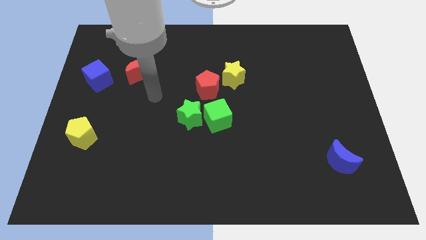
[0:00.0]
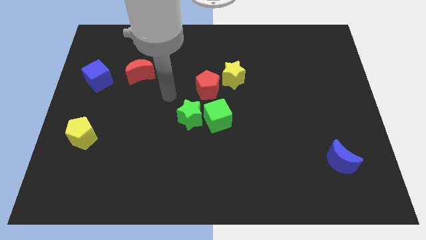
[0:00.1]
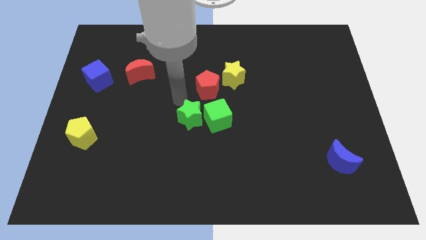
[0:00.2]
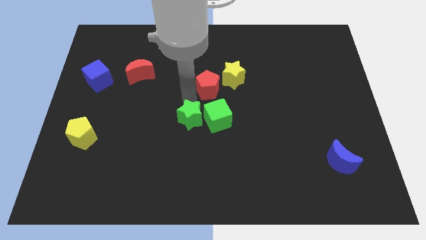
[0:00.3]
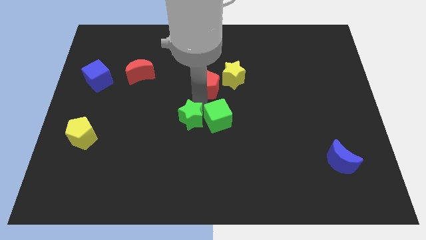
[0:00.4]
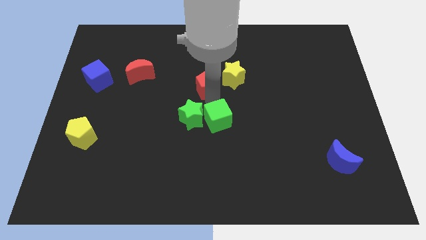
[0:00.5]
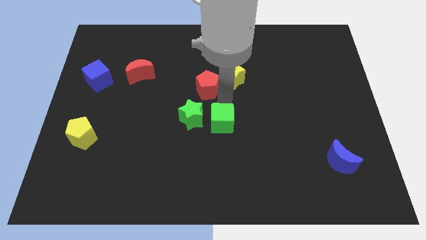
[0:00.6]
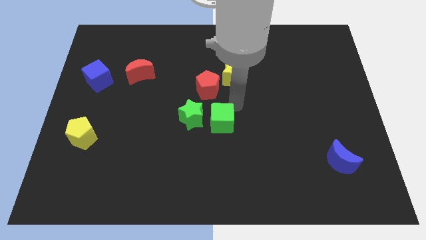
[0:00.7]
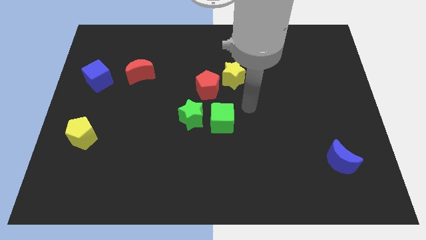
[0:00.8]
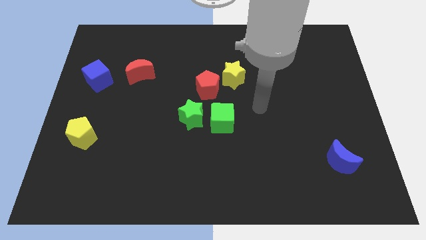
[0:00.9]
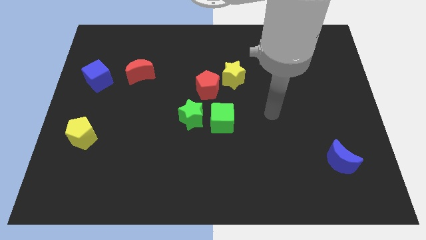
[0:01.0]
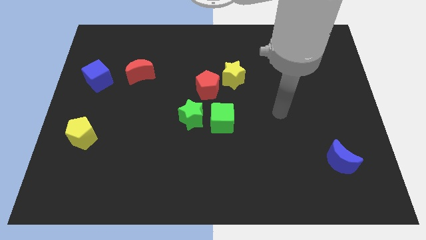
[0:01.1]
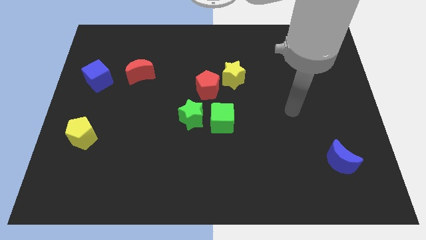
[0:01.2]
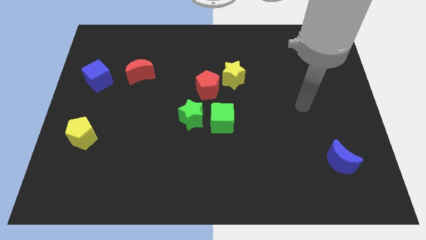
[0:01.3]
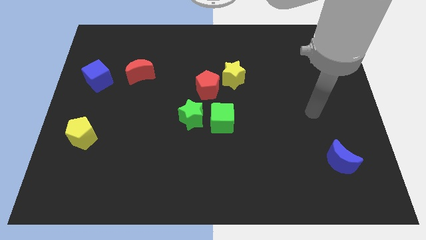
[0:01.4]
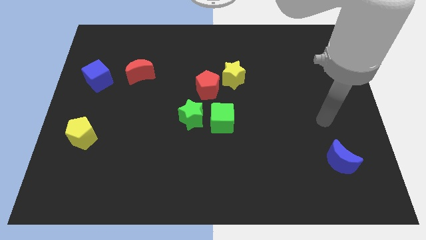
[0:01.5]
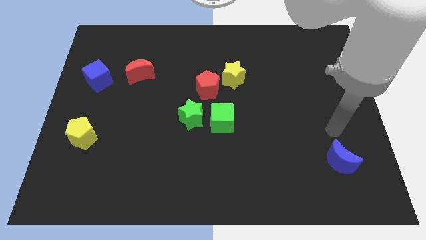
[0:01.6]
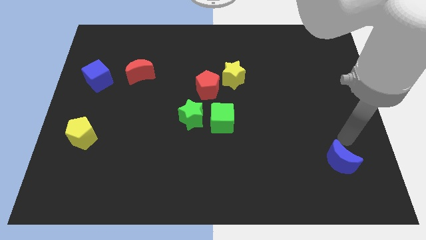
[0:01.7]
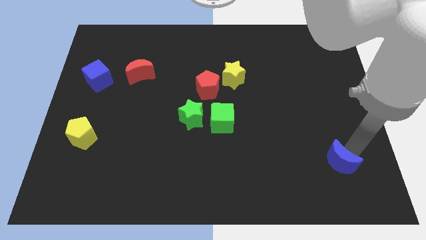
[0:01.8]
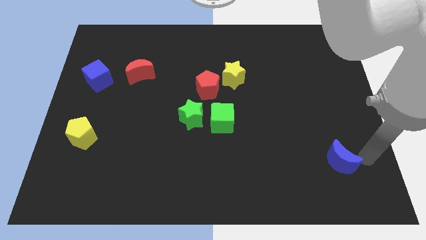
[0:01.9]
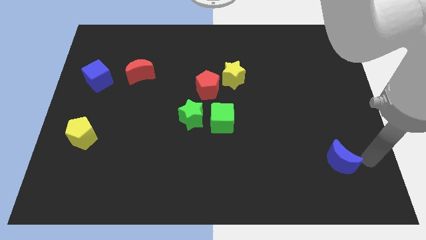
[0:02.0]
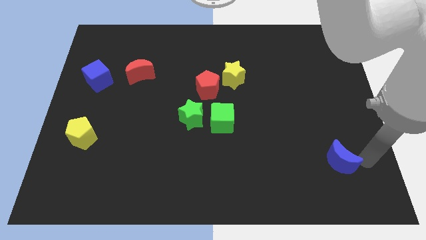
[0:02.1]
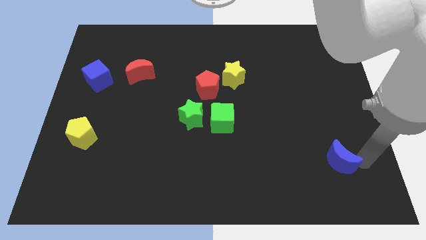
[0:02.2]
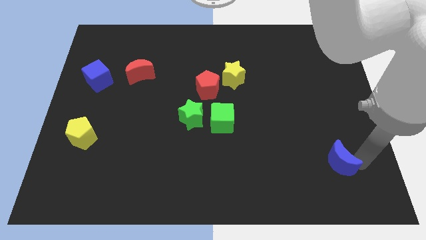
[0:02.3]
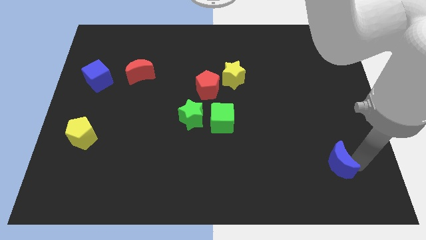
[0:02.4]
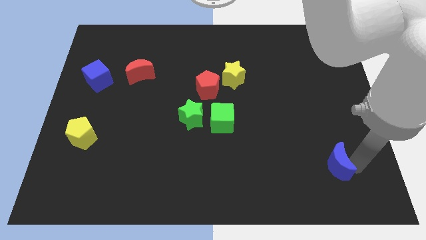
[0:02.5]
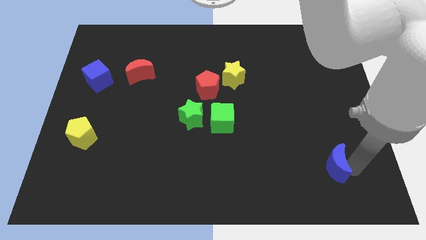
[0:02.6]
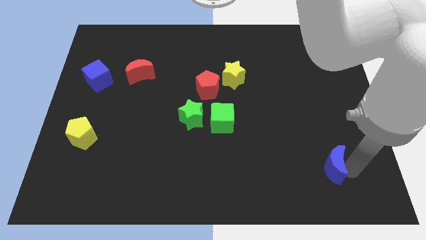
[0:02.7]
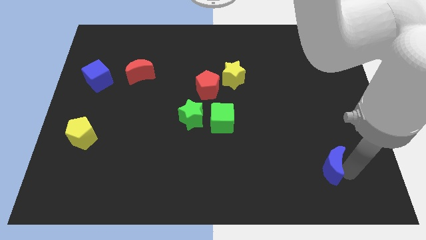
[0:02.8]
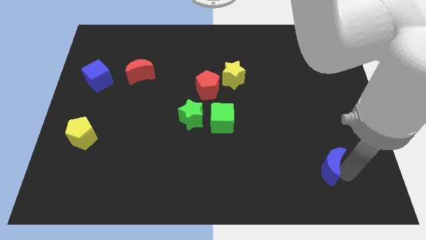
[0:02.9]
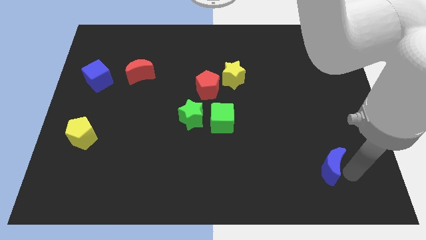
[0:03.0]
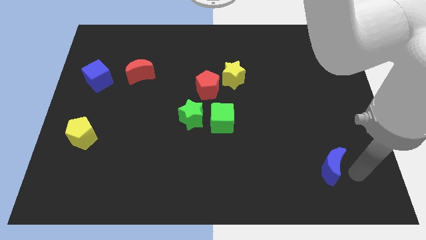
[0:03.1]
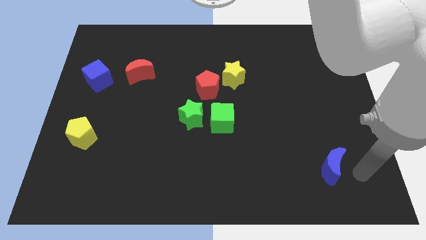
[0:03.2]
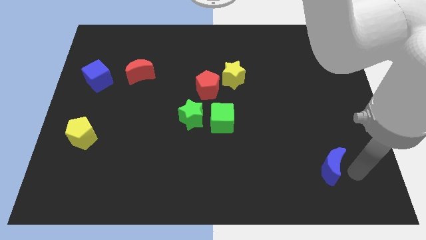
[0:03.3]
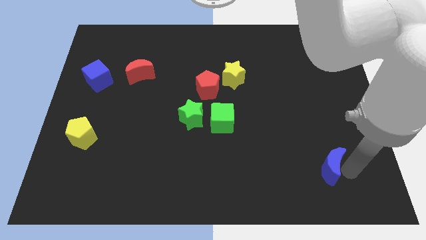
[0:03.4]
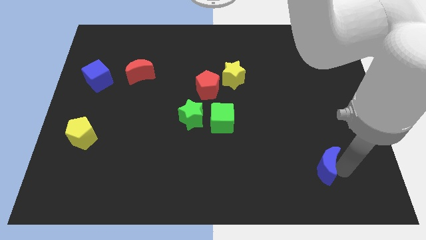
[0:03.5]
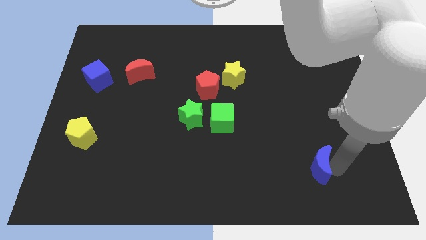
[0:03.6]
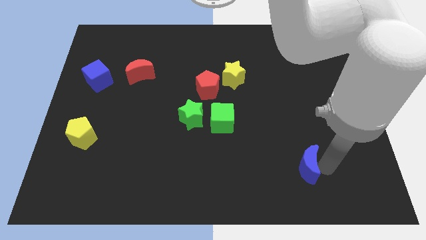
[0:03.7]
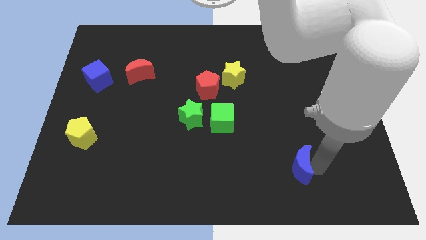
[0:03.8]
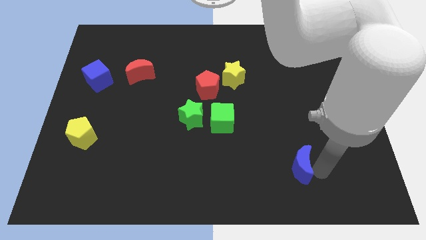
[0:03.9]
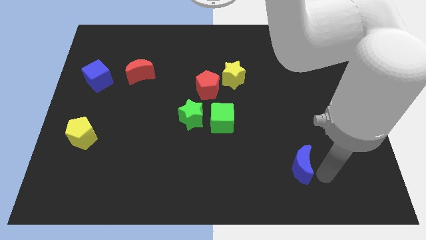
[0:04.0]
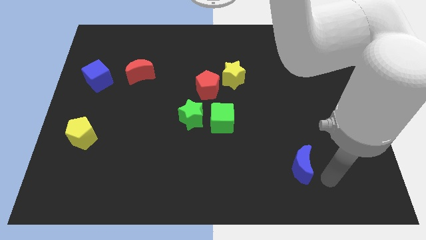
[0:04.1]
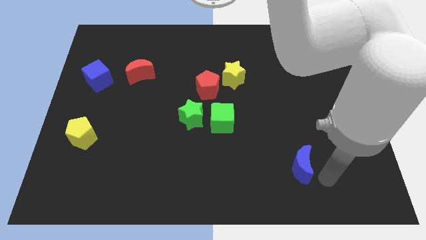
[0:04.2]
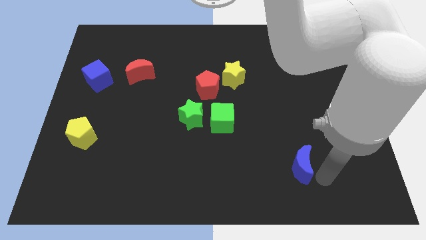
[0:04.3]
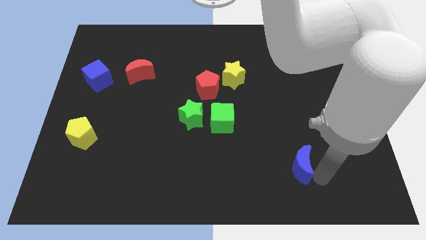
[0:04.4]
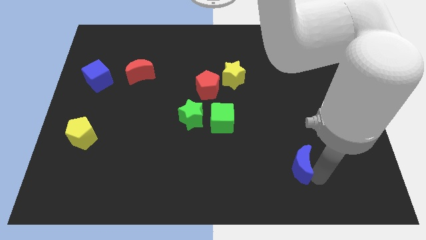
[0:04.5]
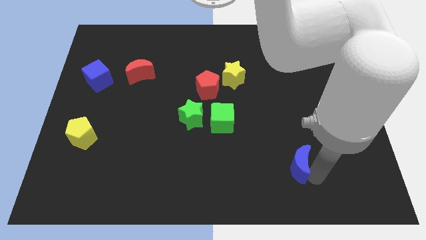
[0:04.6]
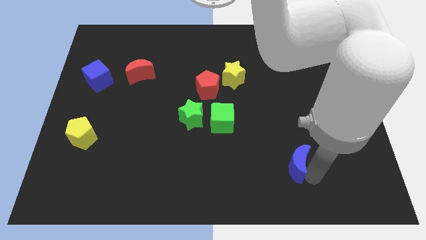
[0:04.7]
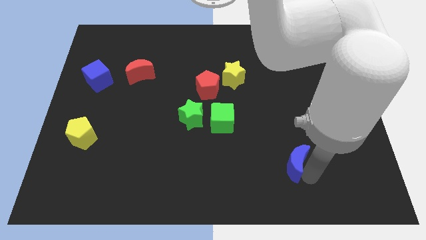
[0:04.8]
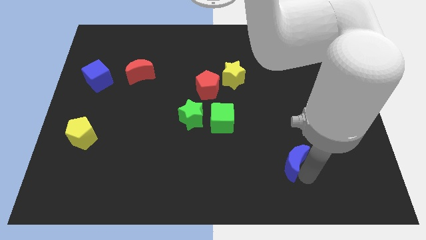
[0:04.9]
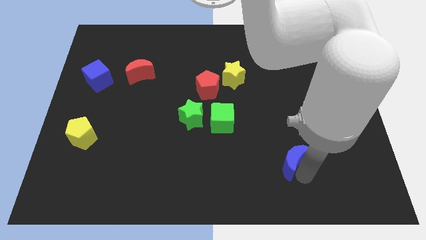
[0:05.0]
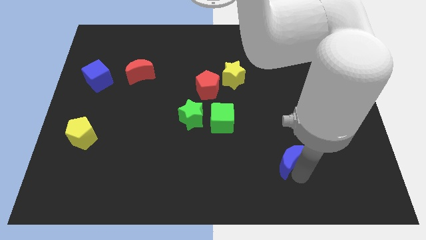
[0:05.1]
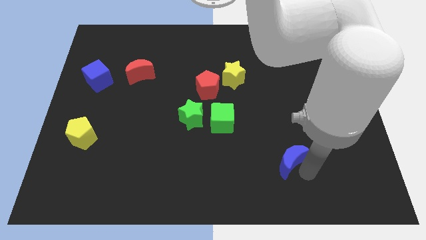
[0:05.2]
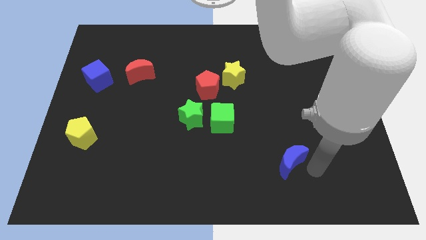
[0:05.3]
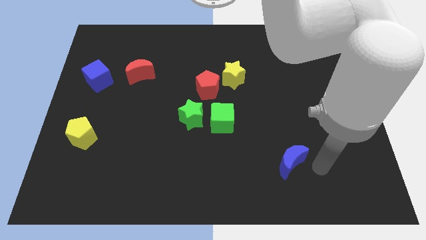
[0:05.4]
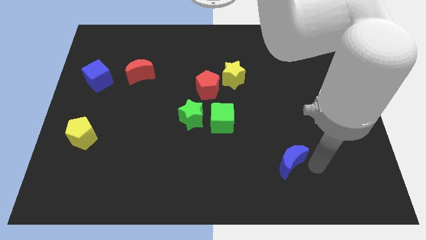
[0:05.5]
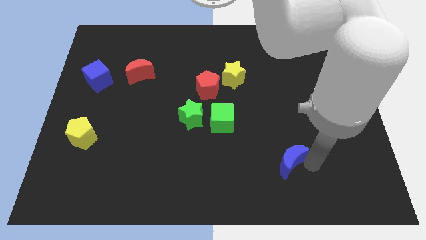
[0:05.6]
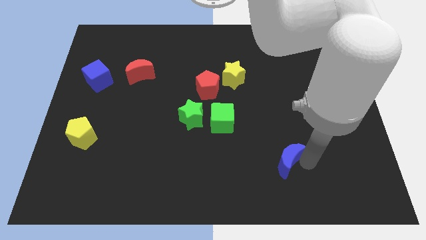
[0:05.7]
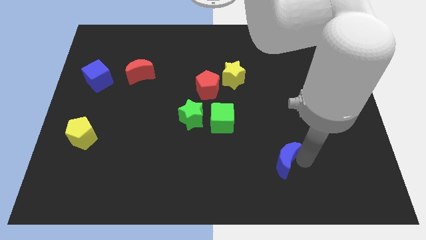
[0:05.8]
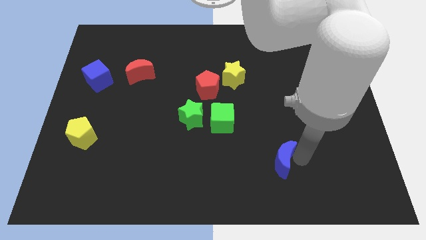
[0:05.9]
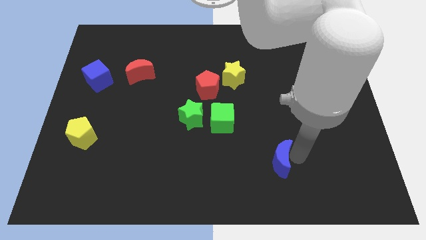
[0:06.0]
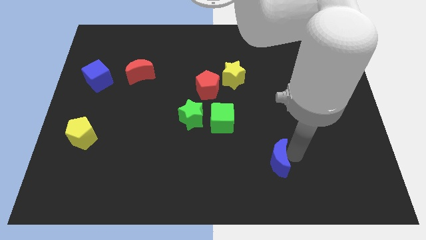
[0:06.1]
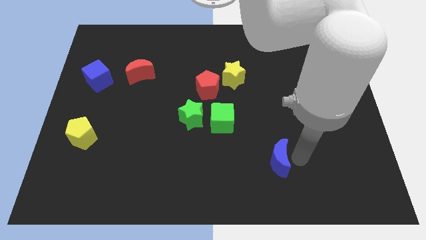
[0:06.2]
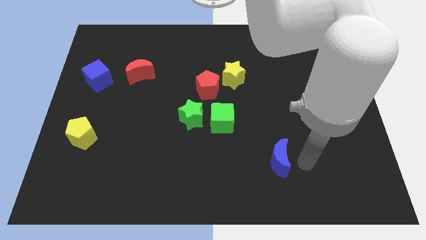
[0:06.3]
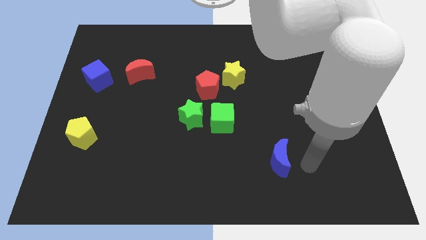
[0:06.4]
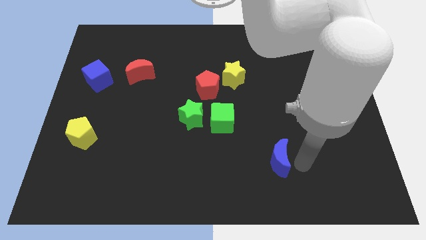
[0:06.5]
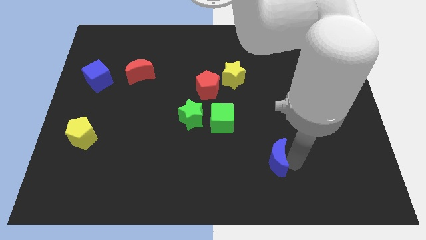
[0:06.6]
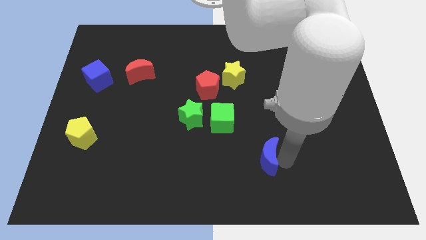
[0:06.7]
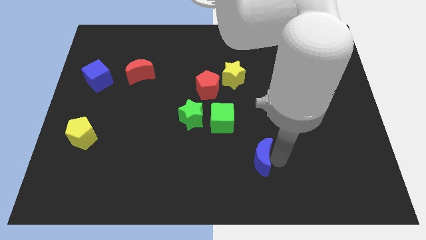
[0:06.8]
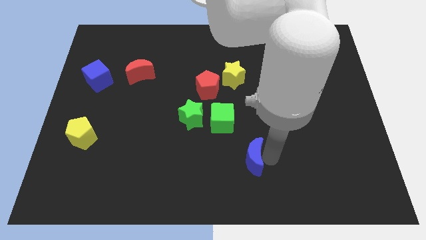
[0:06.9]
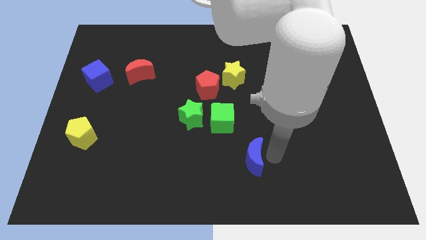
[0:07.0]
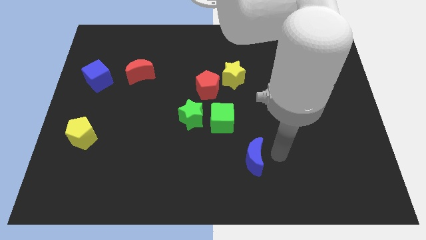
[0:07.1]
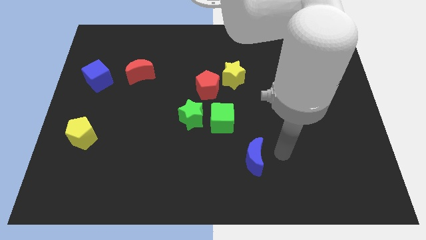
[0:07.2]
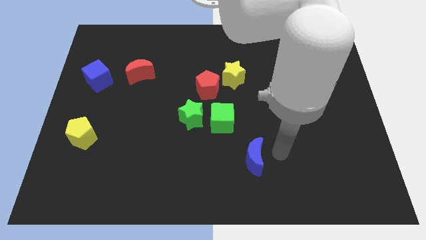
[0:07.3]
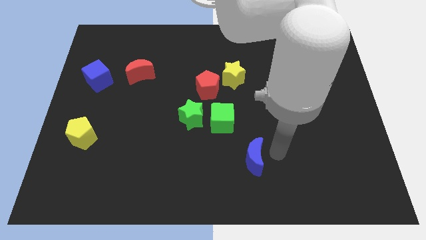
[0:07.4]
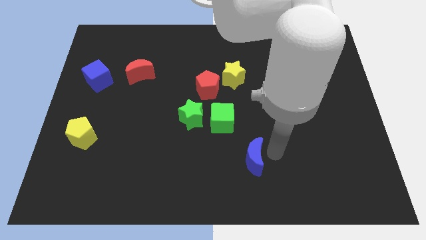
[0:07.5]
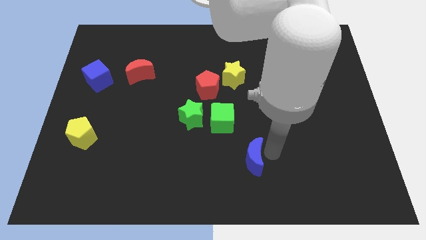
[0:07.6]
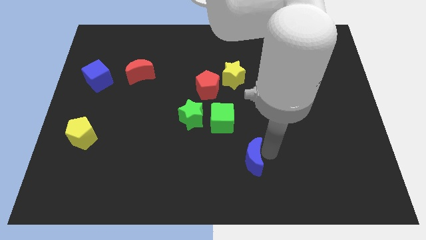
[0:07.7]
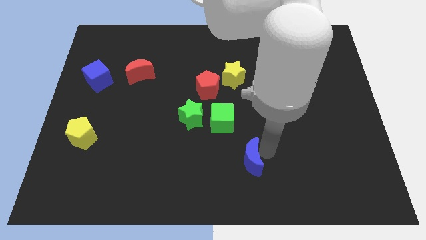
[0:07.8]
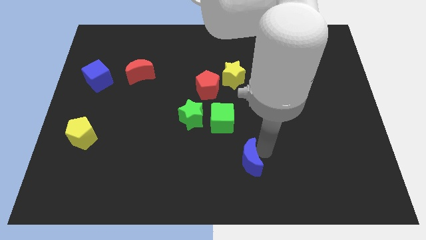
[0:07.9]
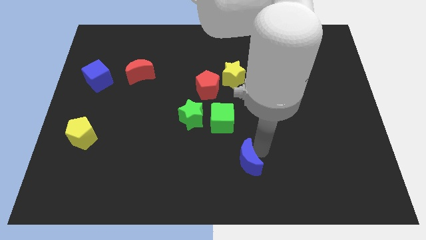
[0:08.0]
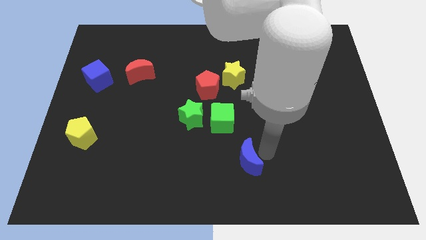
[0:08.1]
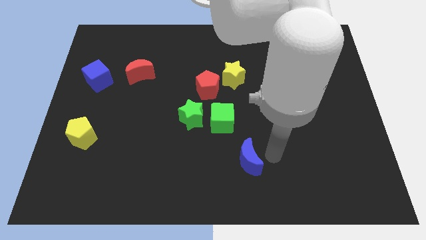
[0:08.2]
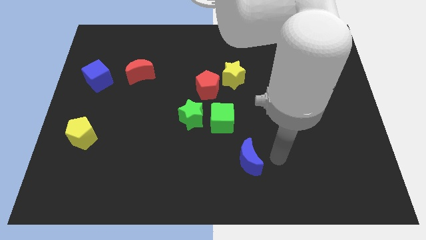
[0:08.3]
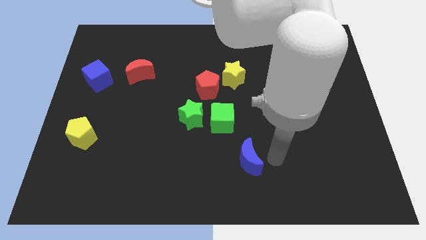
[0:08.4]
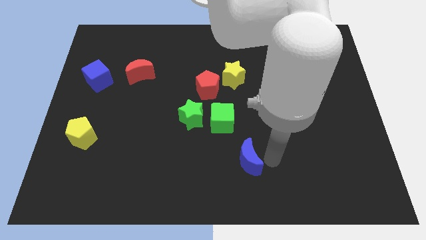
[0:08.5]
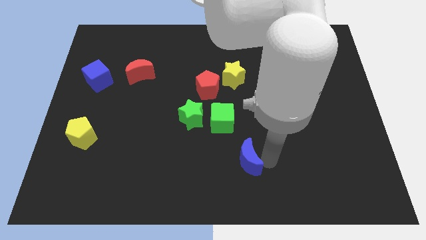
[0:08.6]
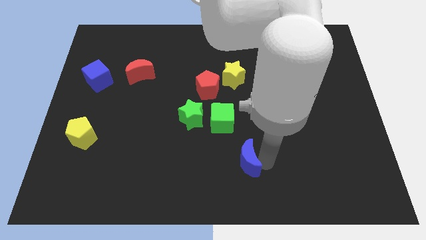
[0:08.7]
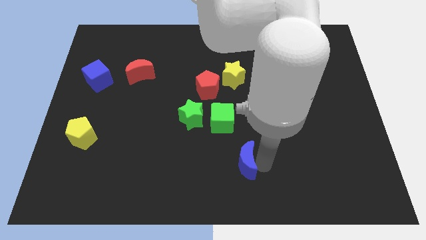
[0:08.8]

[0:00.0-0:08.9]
slide the blue moon left
